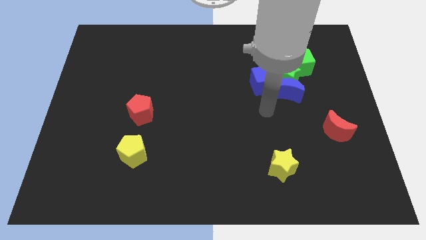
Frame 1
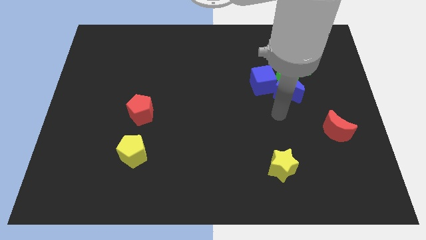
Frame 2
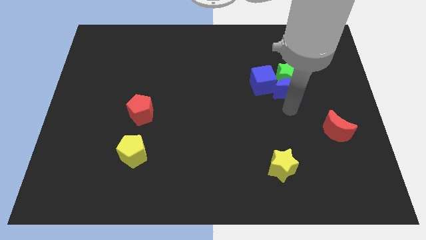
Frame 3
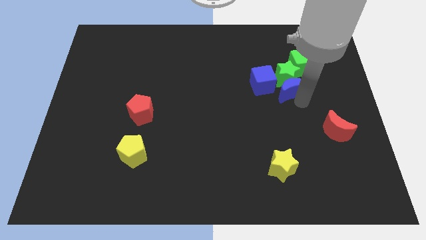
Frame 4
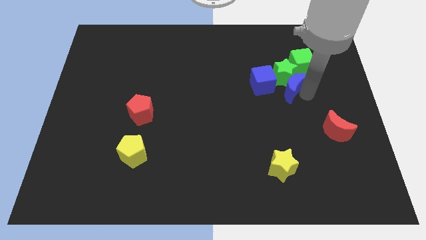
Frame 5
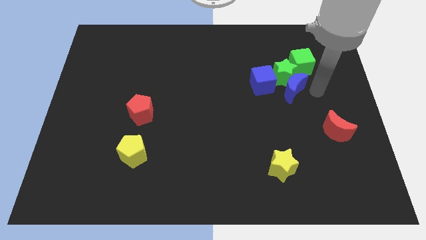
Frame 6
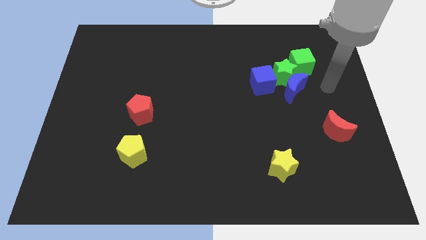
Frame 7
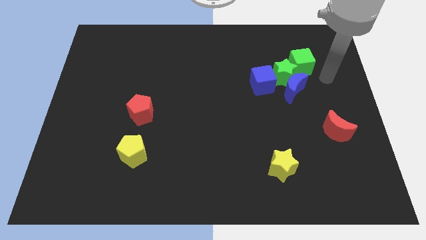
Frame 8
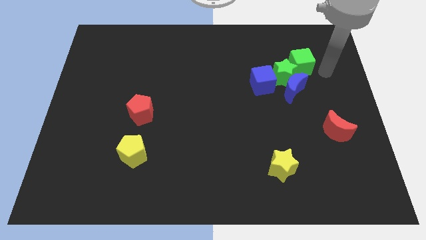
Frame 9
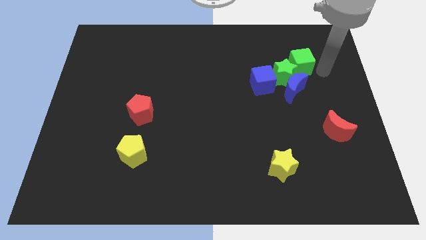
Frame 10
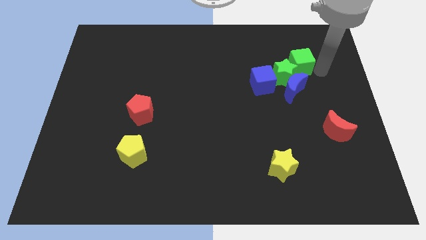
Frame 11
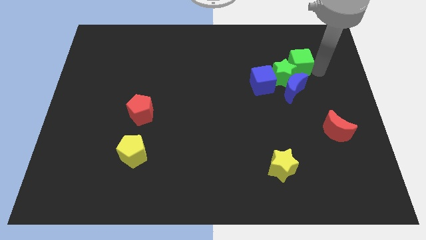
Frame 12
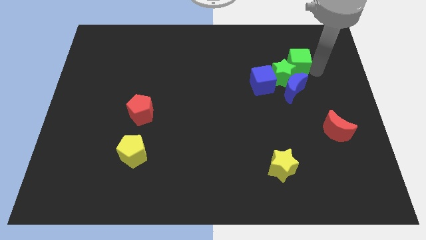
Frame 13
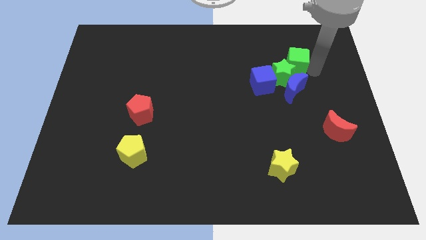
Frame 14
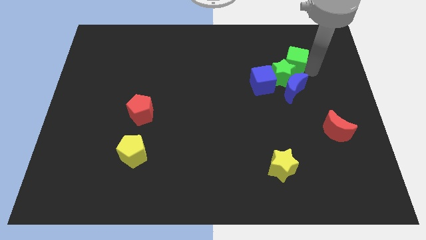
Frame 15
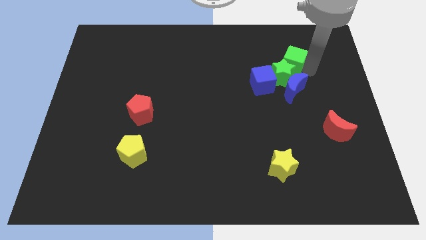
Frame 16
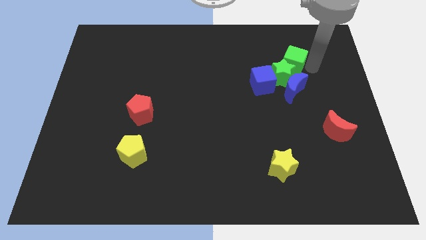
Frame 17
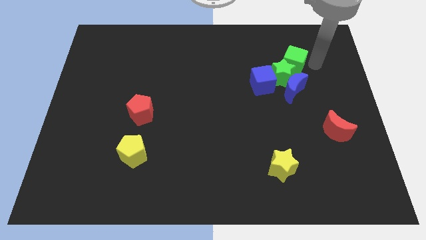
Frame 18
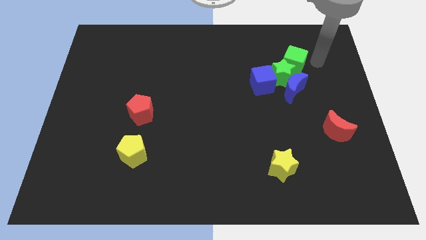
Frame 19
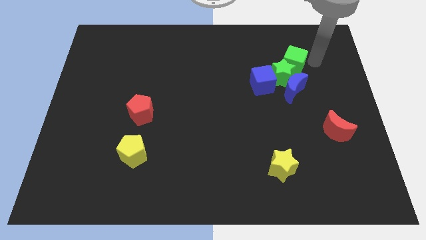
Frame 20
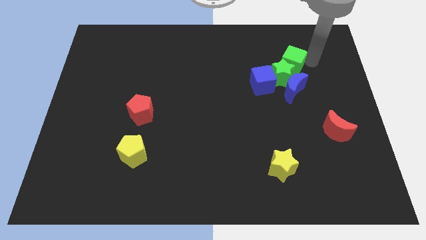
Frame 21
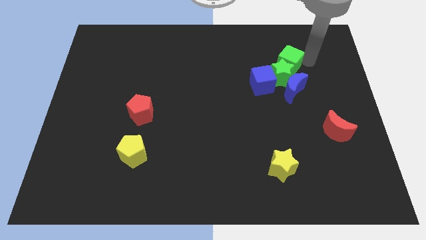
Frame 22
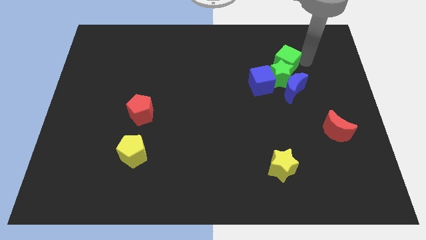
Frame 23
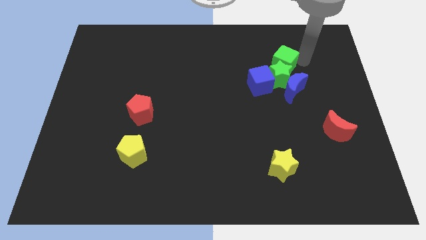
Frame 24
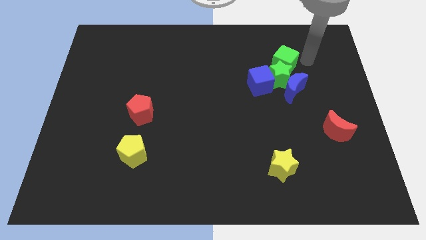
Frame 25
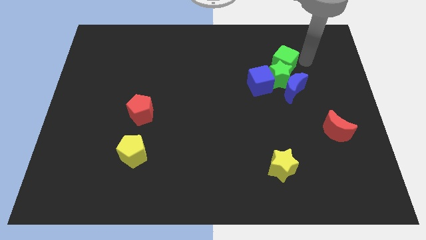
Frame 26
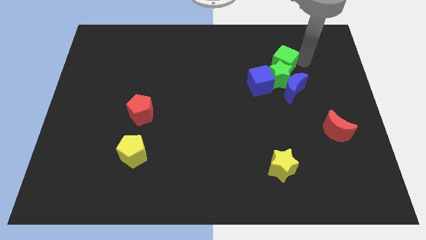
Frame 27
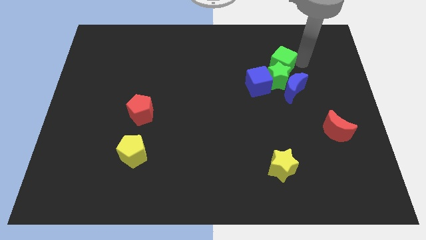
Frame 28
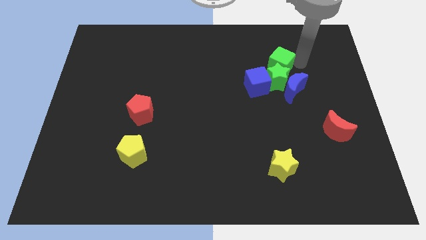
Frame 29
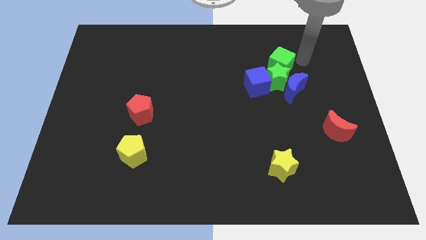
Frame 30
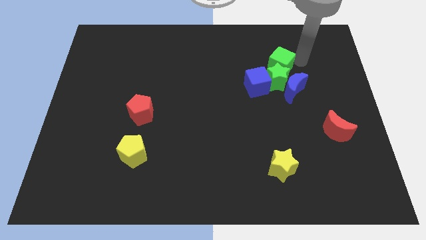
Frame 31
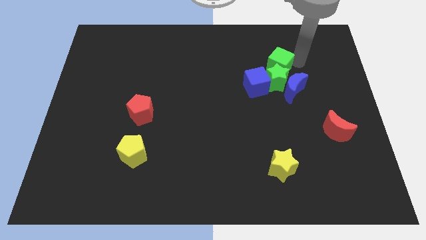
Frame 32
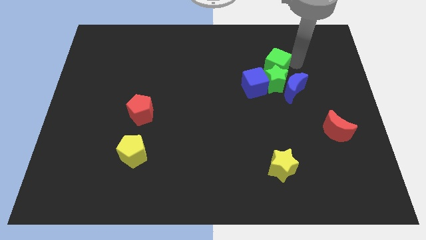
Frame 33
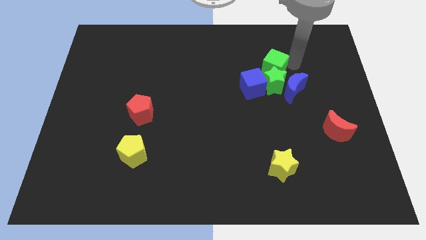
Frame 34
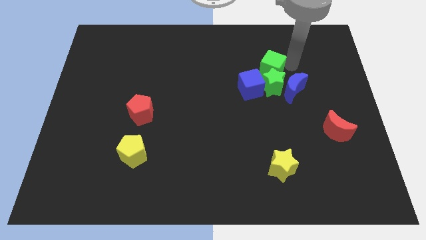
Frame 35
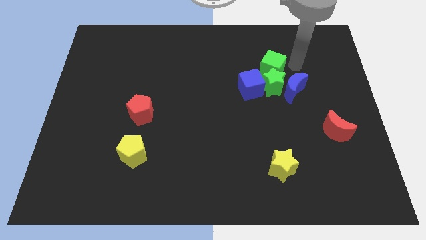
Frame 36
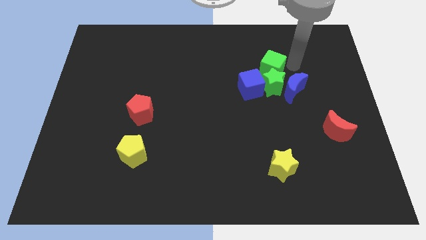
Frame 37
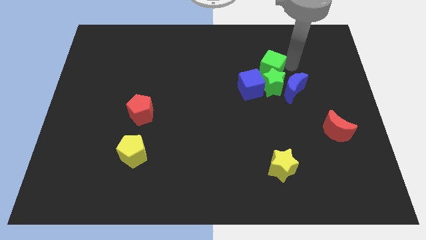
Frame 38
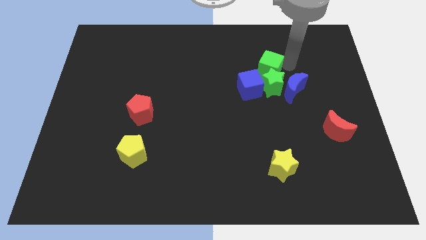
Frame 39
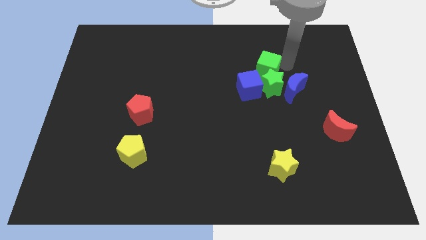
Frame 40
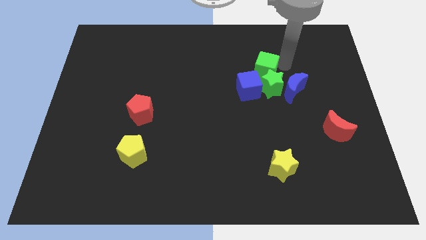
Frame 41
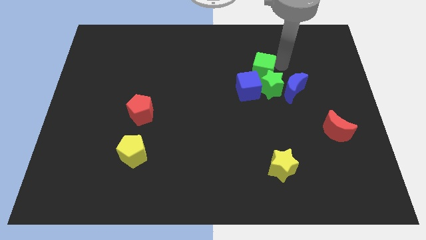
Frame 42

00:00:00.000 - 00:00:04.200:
move the green cube down and left somewhat

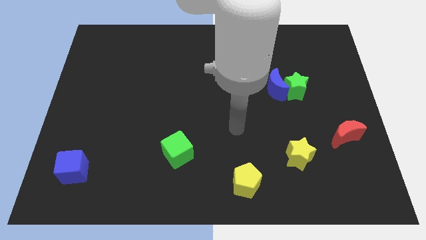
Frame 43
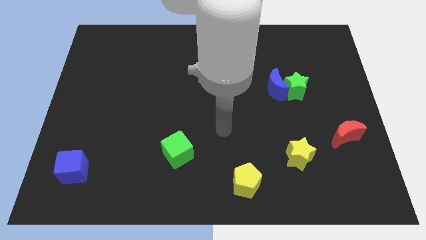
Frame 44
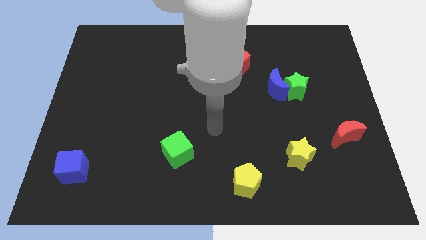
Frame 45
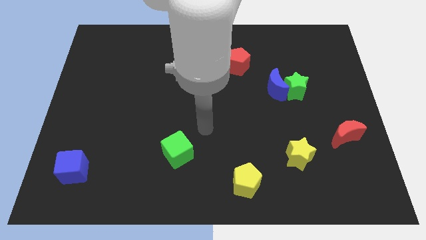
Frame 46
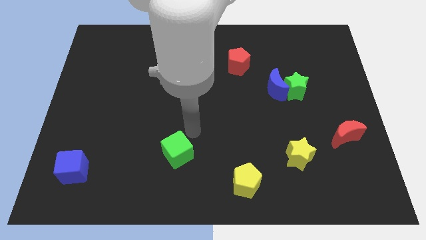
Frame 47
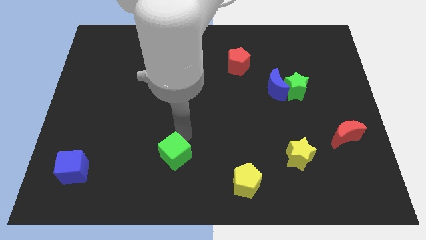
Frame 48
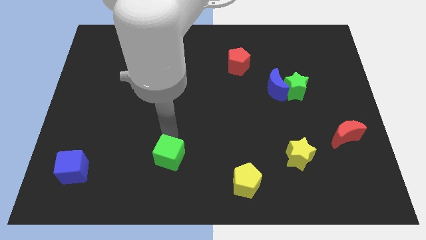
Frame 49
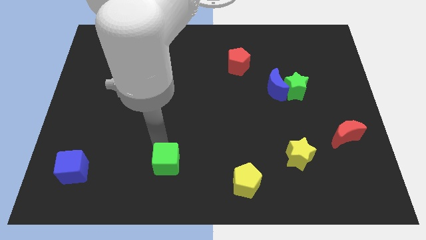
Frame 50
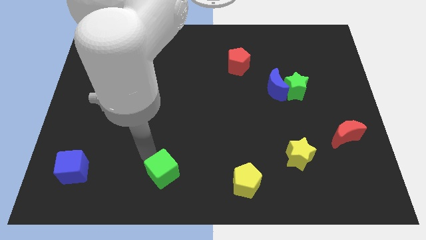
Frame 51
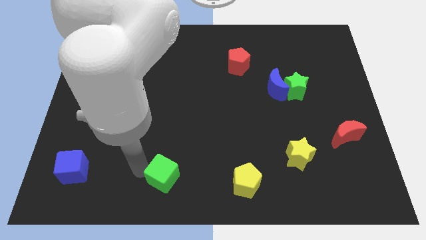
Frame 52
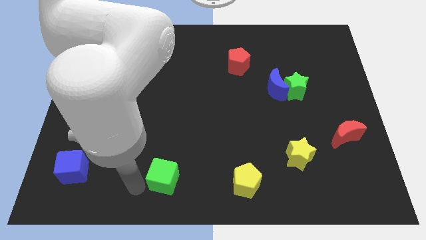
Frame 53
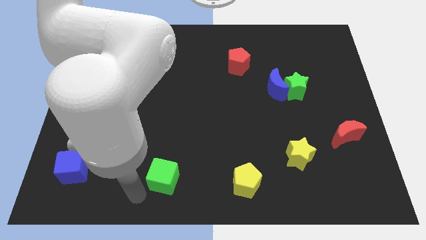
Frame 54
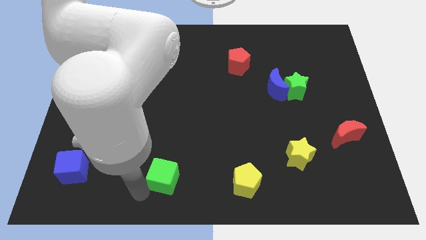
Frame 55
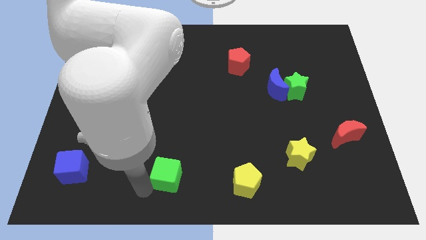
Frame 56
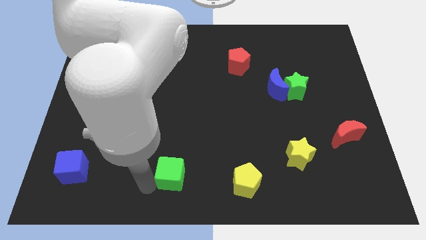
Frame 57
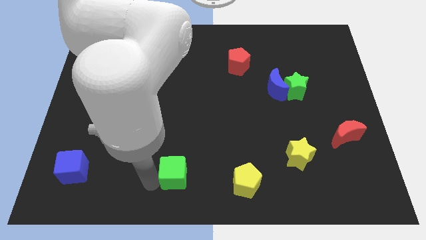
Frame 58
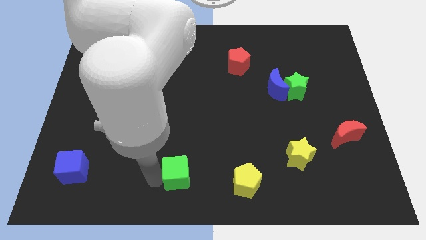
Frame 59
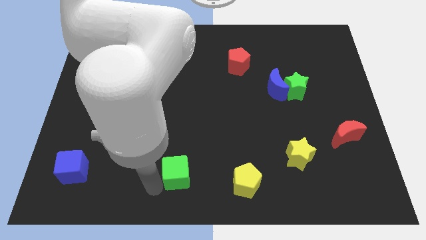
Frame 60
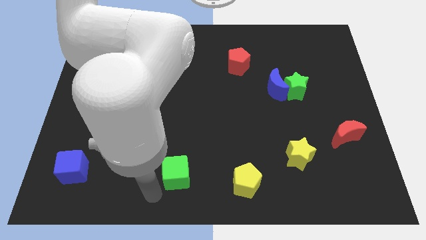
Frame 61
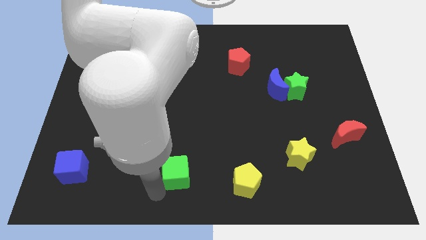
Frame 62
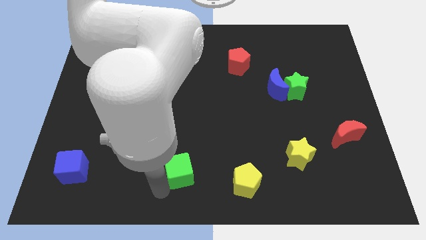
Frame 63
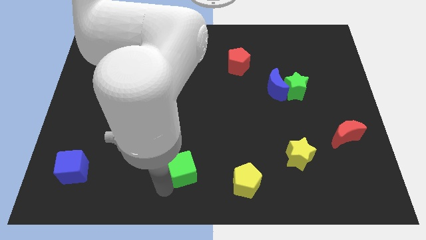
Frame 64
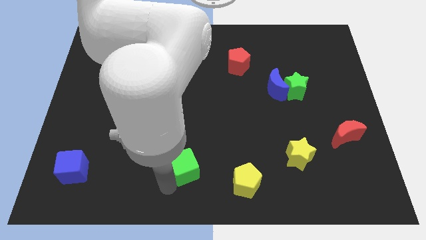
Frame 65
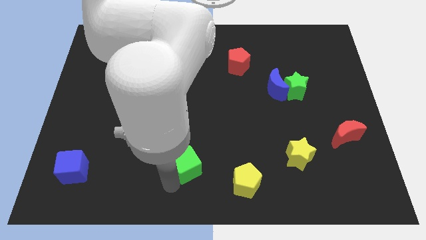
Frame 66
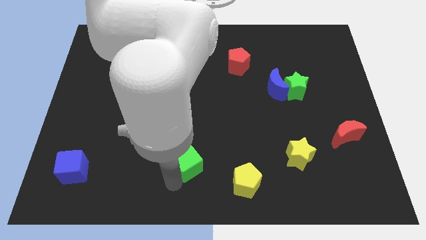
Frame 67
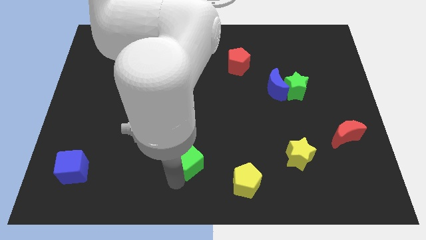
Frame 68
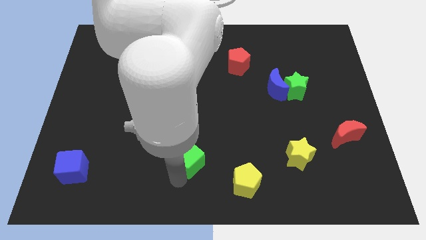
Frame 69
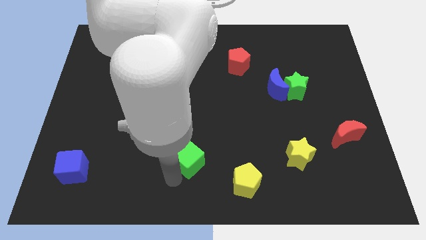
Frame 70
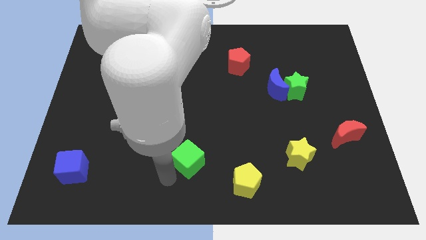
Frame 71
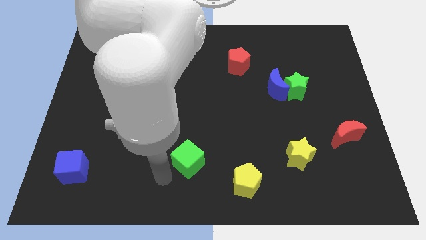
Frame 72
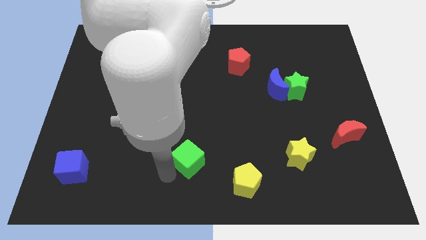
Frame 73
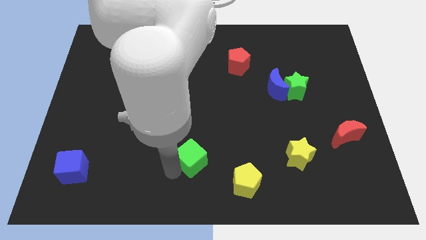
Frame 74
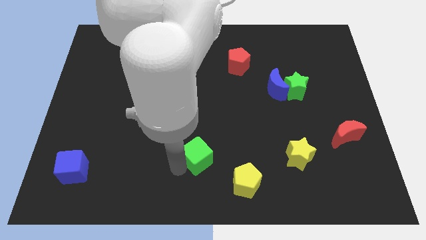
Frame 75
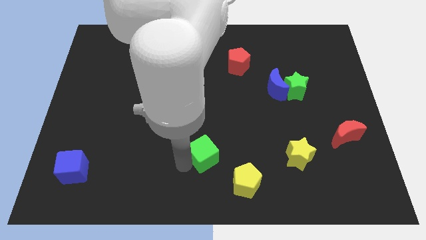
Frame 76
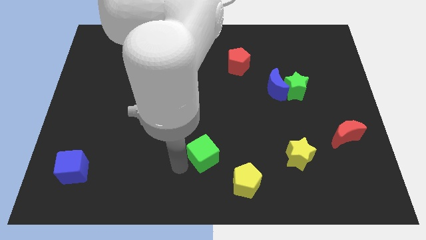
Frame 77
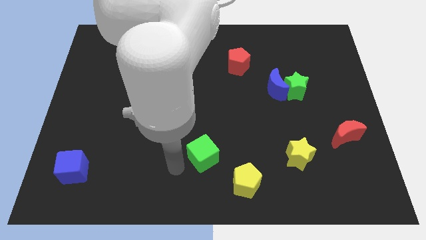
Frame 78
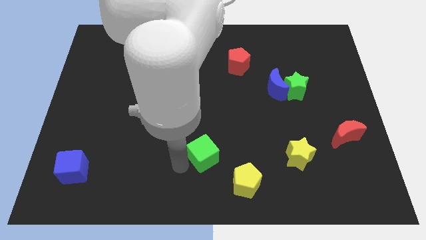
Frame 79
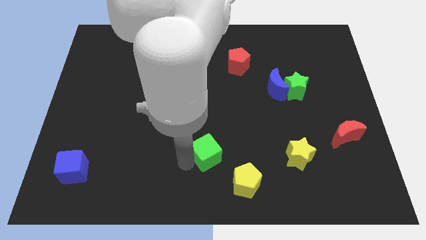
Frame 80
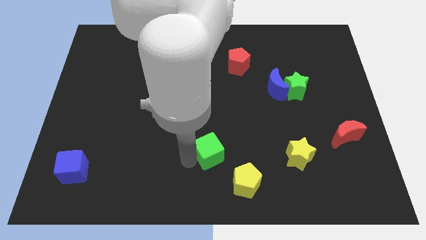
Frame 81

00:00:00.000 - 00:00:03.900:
push the green cube to the right a bit
